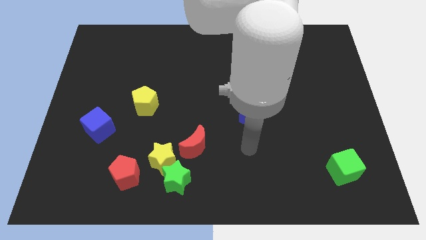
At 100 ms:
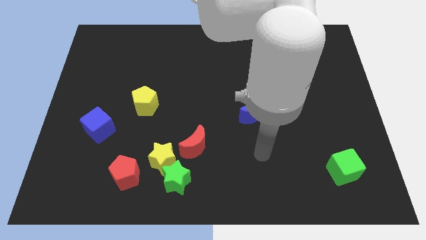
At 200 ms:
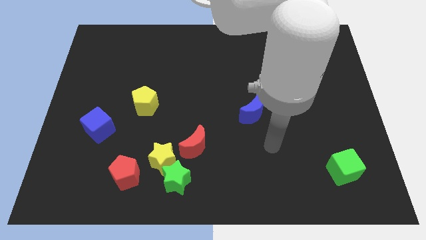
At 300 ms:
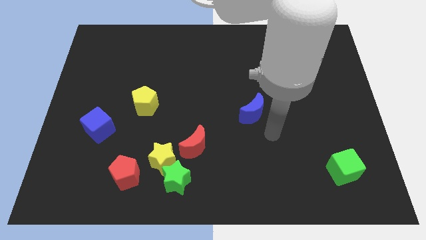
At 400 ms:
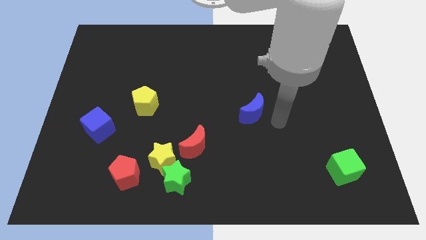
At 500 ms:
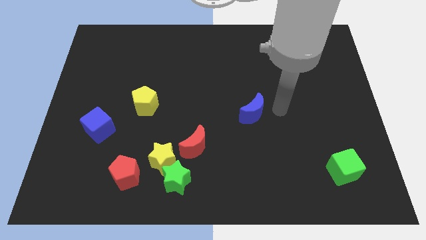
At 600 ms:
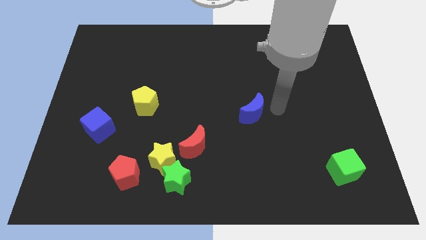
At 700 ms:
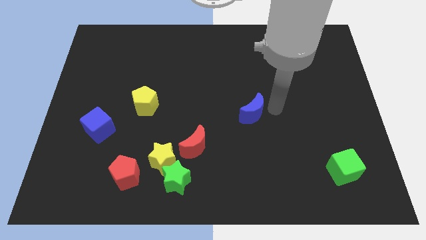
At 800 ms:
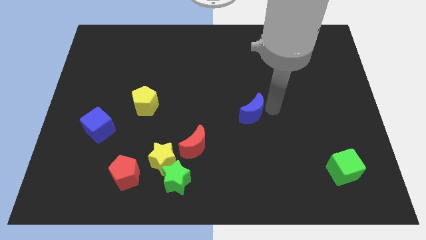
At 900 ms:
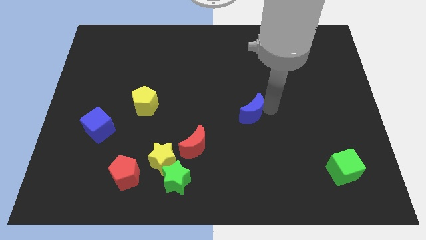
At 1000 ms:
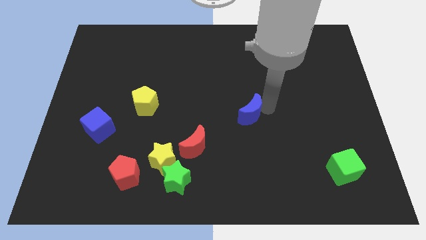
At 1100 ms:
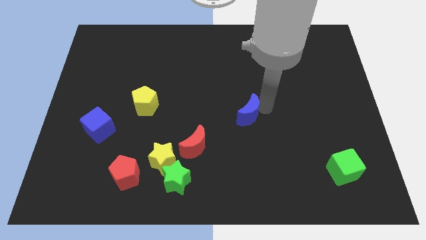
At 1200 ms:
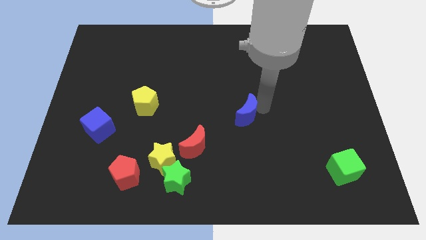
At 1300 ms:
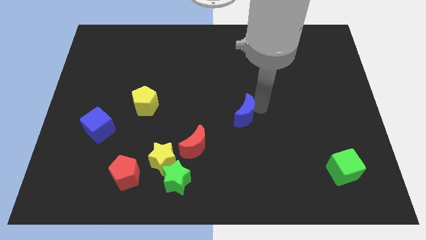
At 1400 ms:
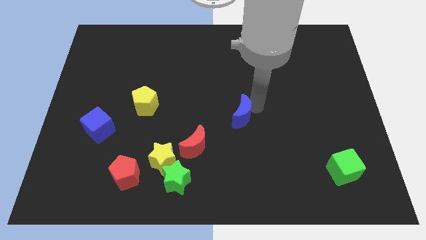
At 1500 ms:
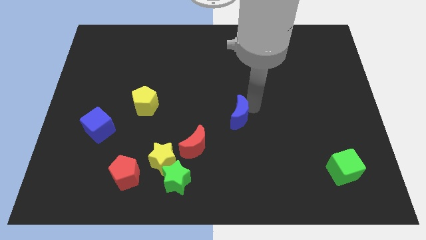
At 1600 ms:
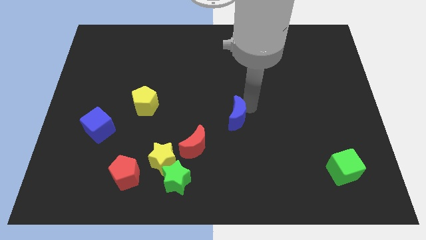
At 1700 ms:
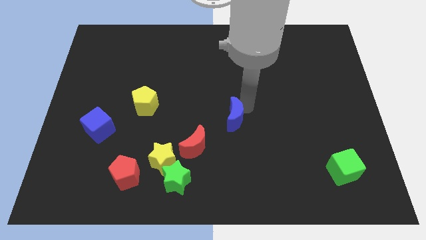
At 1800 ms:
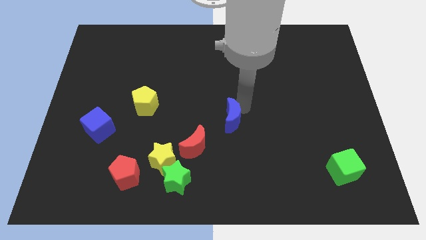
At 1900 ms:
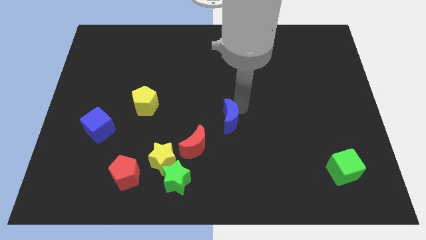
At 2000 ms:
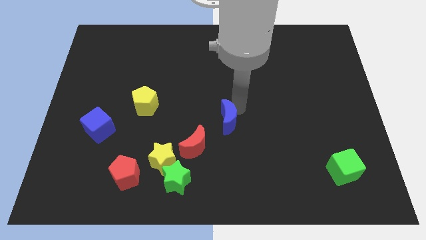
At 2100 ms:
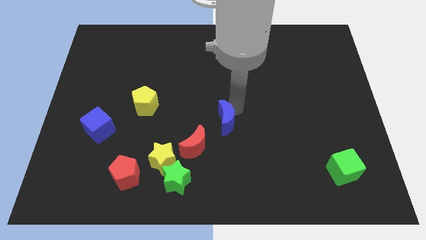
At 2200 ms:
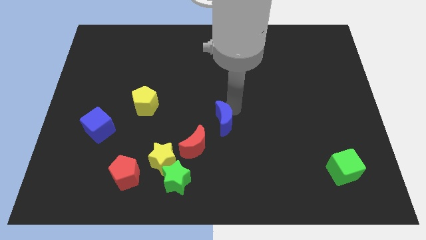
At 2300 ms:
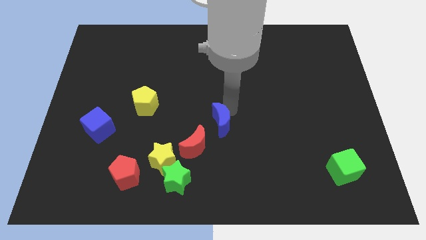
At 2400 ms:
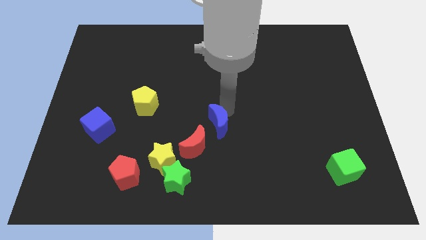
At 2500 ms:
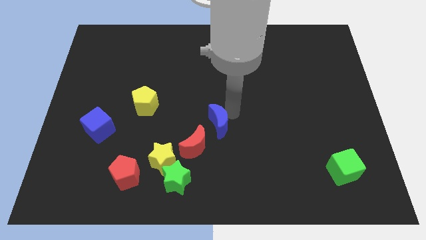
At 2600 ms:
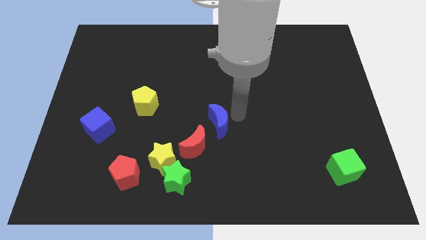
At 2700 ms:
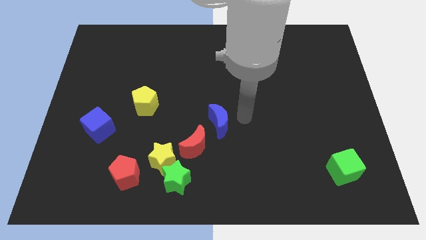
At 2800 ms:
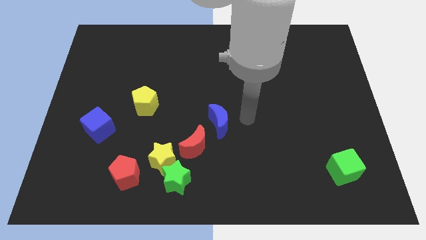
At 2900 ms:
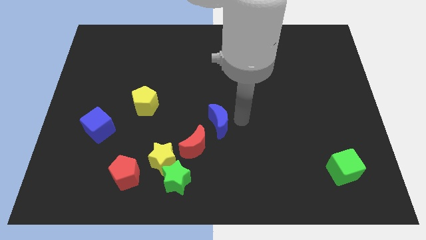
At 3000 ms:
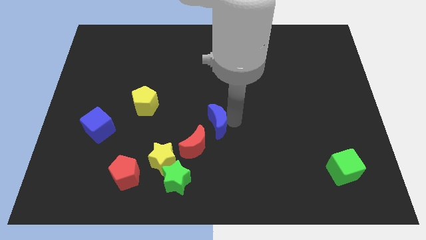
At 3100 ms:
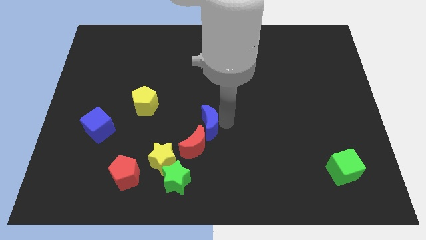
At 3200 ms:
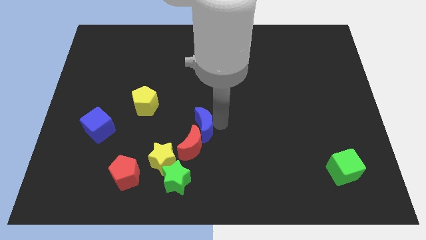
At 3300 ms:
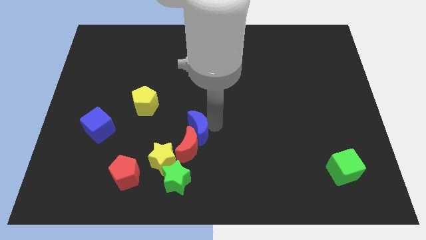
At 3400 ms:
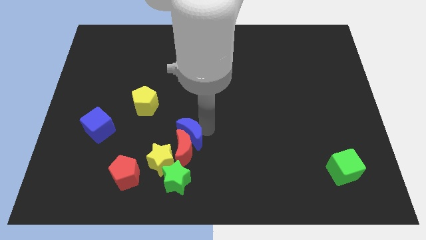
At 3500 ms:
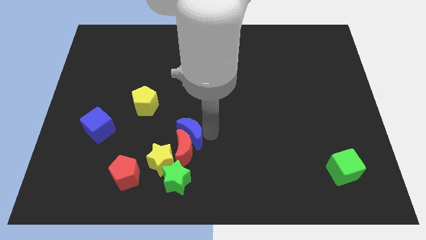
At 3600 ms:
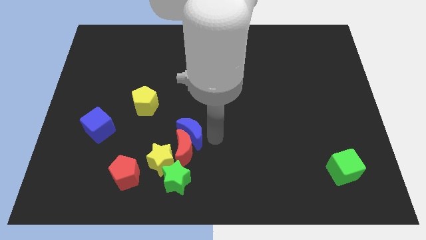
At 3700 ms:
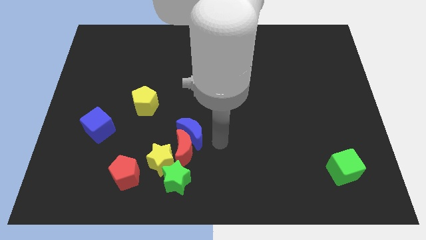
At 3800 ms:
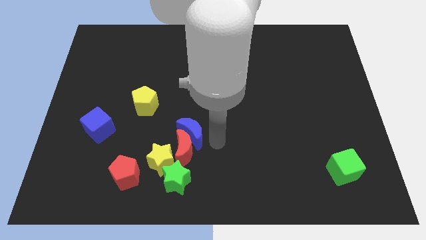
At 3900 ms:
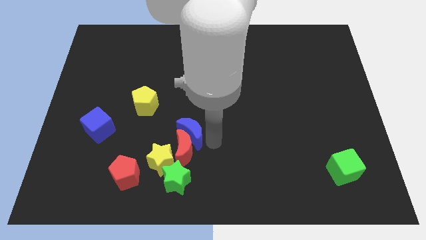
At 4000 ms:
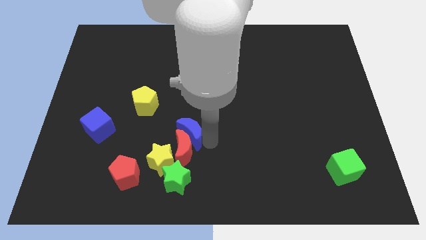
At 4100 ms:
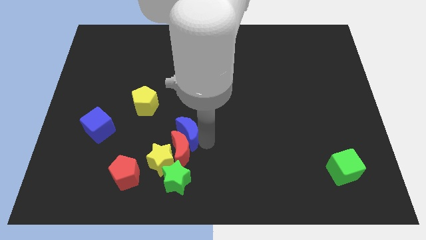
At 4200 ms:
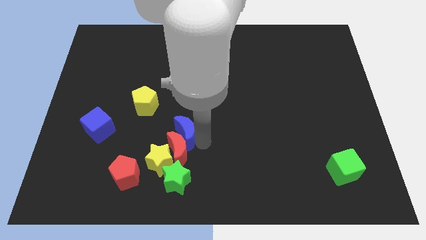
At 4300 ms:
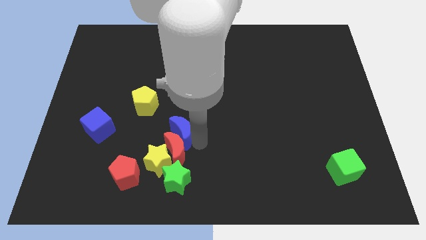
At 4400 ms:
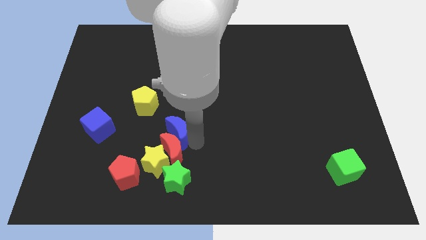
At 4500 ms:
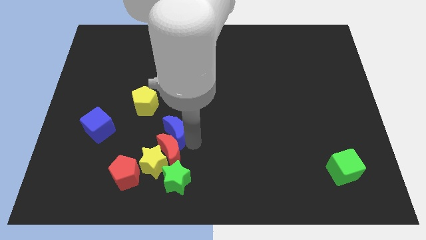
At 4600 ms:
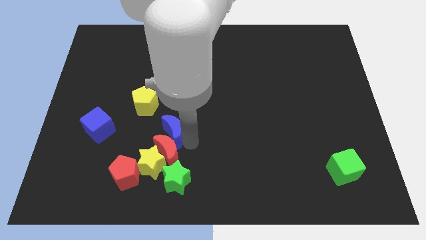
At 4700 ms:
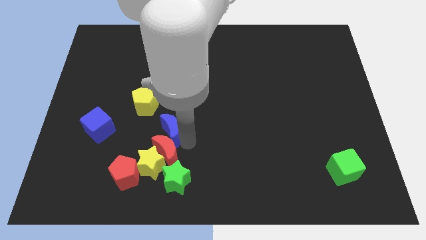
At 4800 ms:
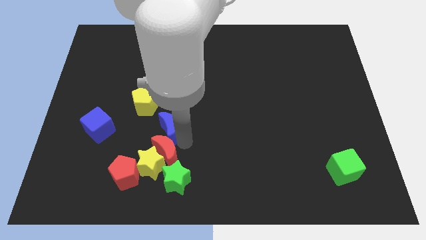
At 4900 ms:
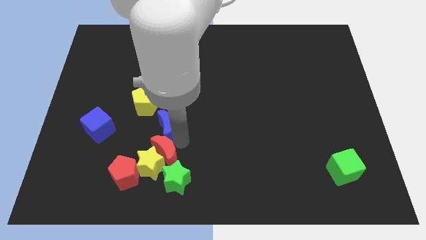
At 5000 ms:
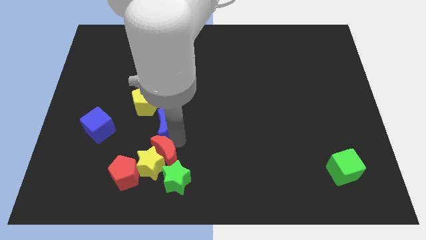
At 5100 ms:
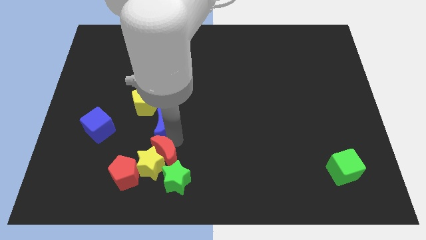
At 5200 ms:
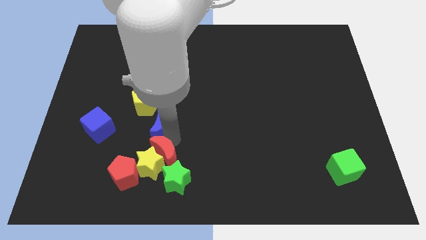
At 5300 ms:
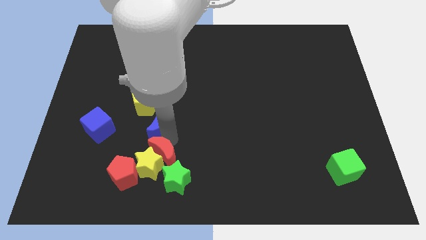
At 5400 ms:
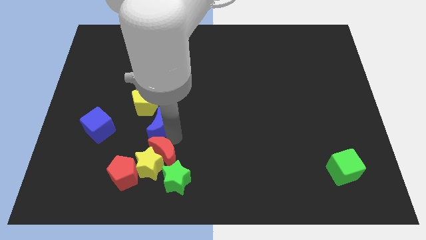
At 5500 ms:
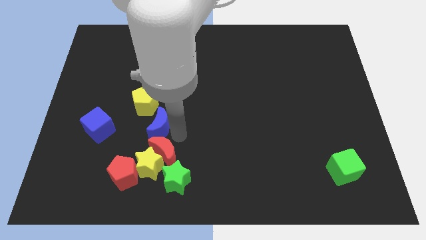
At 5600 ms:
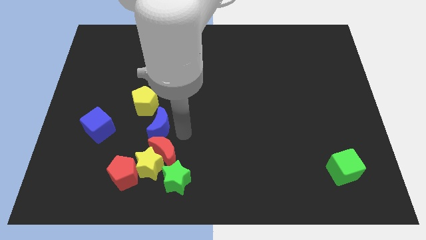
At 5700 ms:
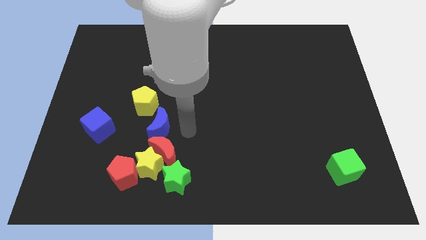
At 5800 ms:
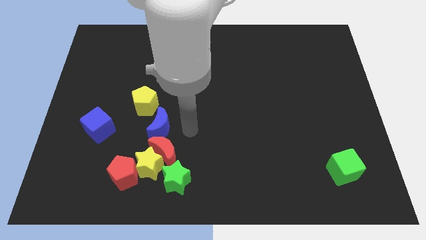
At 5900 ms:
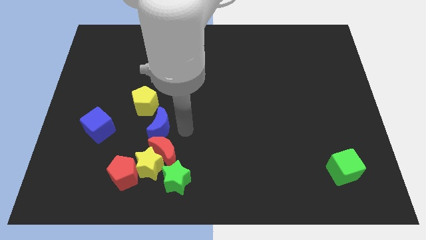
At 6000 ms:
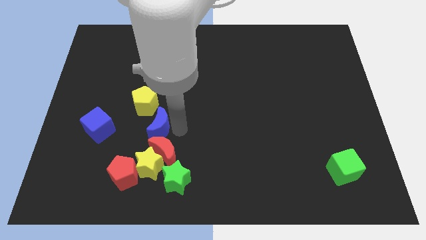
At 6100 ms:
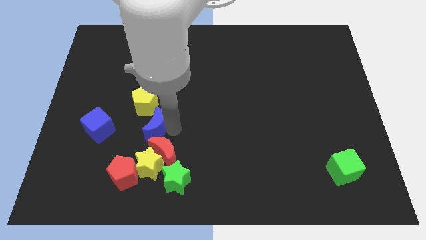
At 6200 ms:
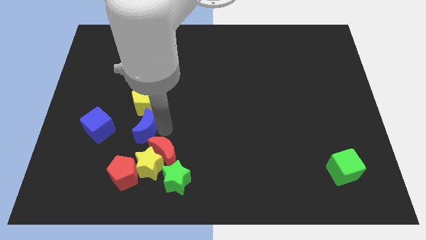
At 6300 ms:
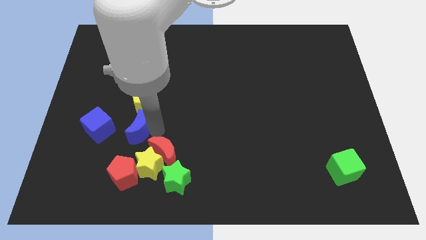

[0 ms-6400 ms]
move the blue moon to the bottom left side of the yellow pentagon

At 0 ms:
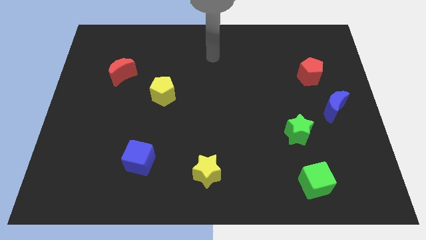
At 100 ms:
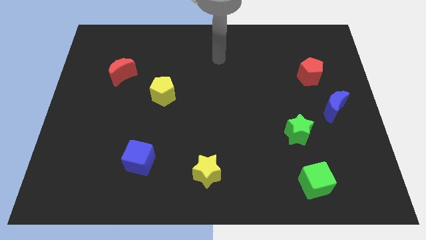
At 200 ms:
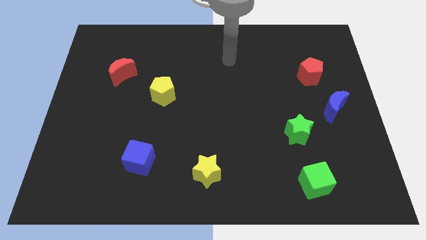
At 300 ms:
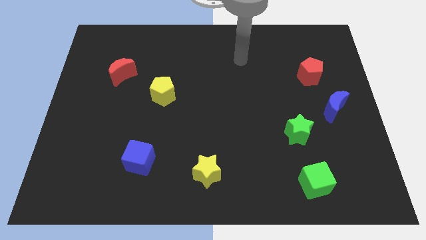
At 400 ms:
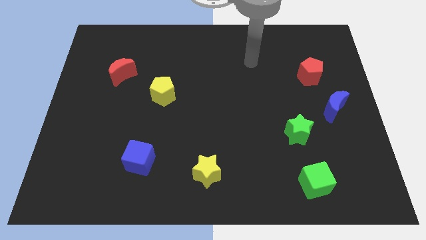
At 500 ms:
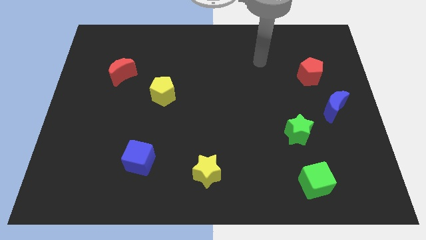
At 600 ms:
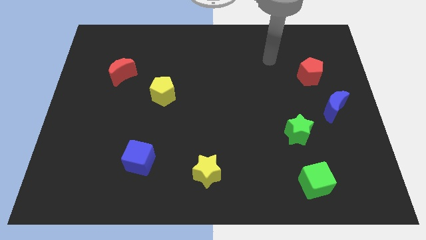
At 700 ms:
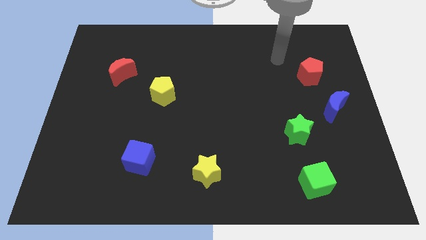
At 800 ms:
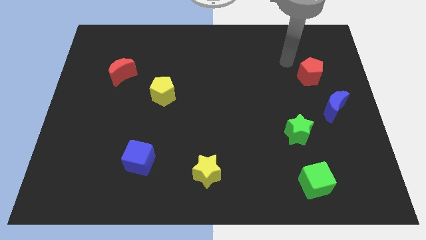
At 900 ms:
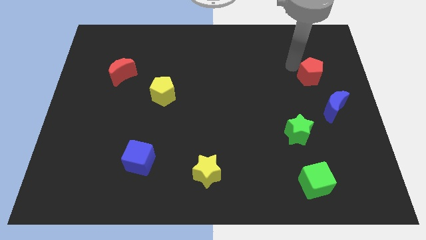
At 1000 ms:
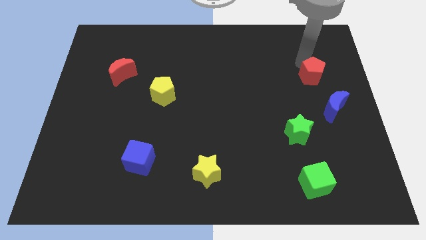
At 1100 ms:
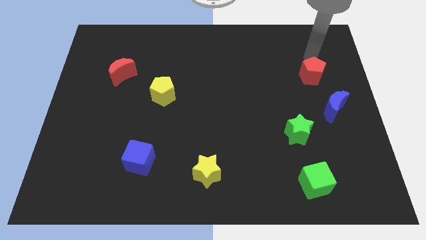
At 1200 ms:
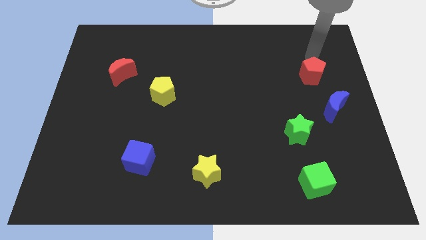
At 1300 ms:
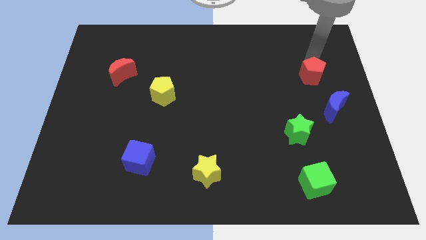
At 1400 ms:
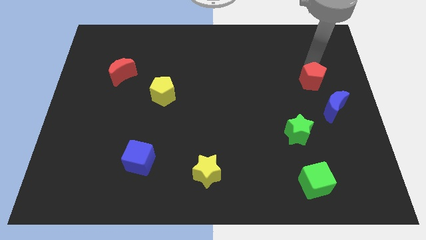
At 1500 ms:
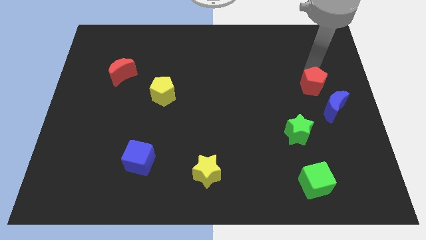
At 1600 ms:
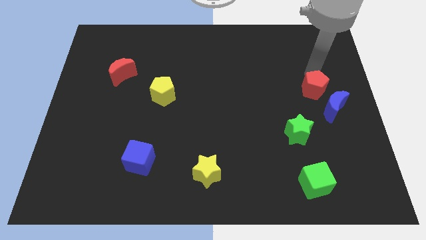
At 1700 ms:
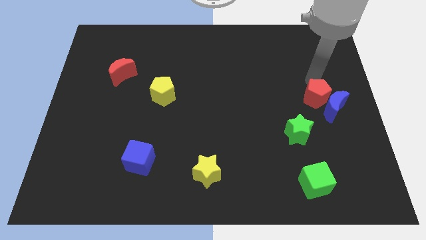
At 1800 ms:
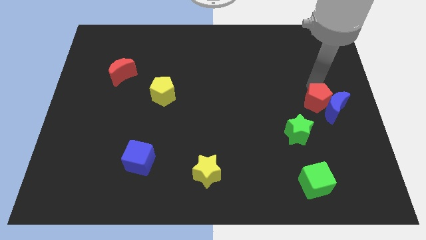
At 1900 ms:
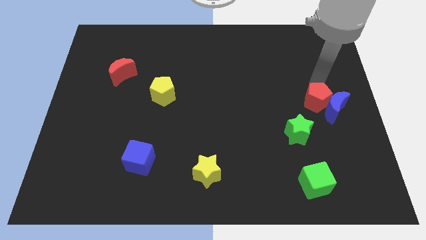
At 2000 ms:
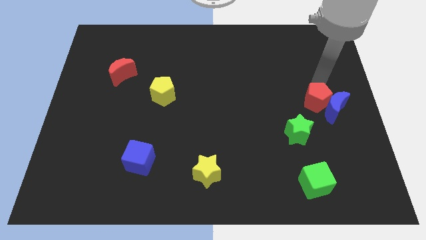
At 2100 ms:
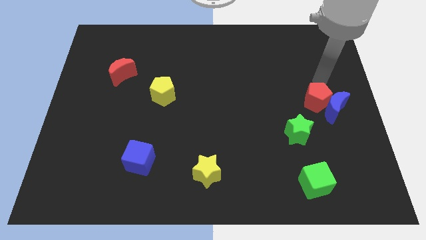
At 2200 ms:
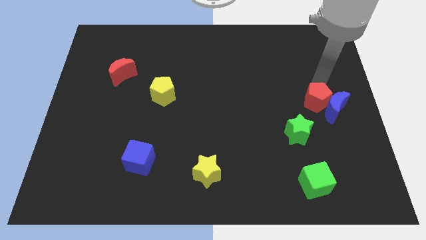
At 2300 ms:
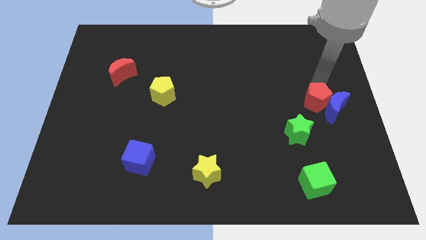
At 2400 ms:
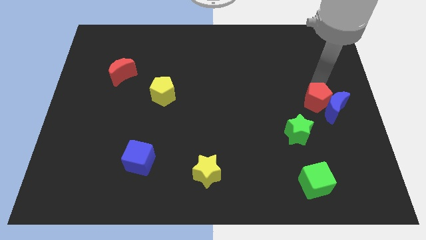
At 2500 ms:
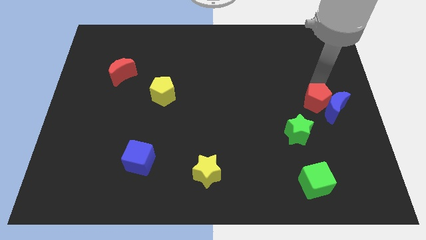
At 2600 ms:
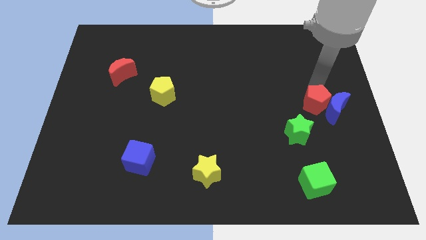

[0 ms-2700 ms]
slide the red pentagon to the bottom left of the blue moon
